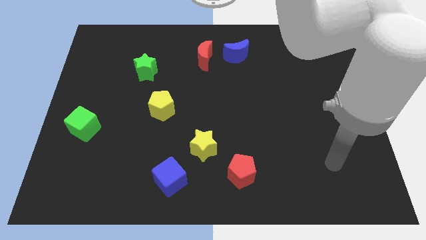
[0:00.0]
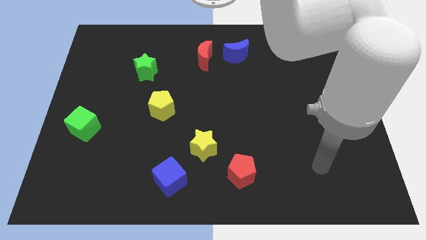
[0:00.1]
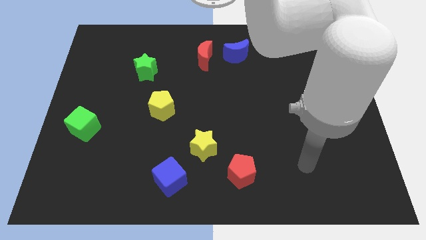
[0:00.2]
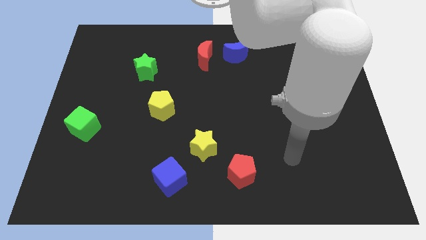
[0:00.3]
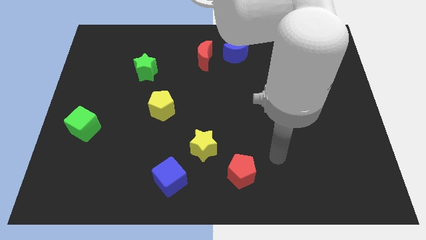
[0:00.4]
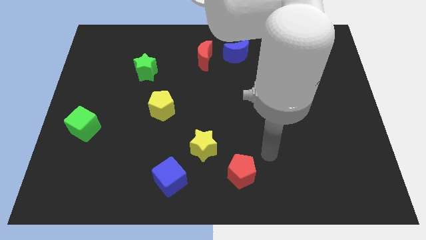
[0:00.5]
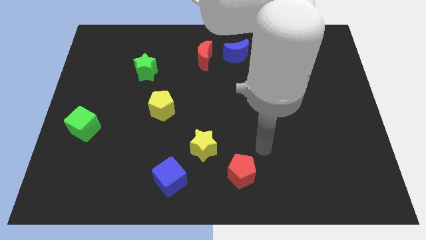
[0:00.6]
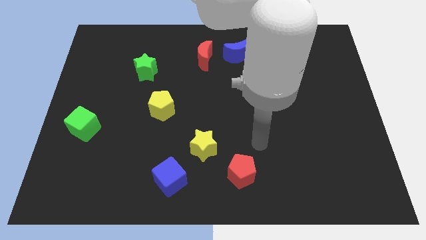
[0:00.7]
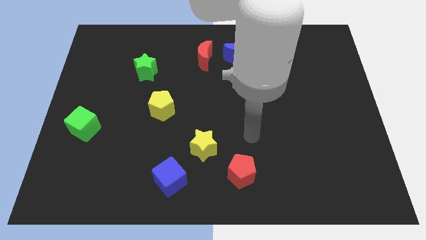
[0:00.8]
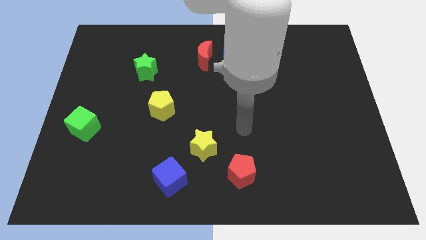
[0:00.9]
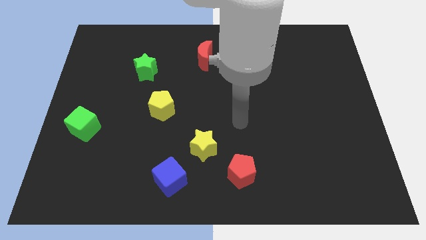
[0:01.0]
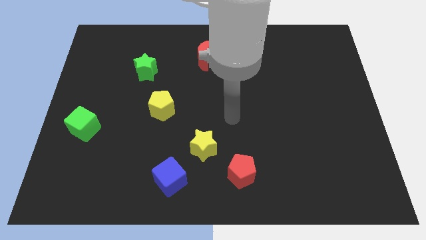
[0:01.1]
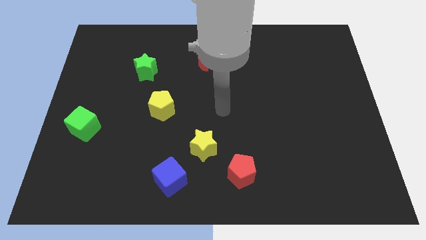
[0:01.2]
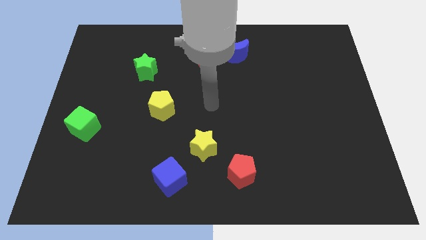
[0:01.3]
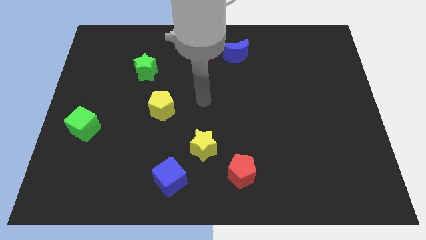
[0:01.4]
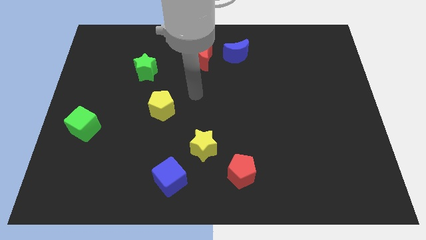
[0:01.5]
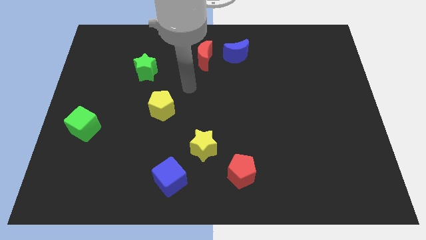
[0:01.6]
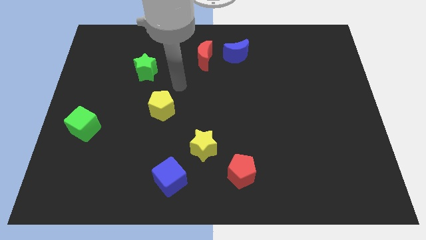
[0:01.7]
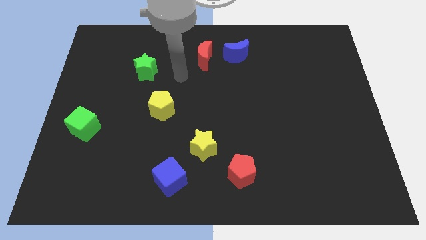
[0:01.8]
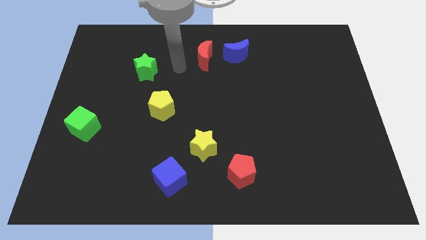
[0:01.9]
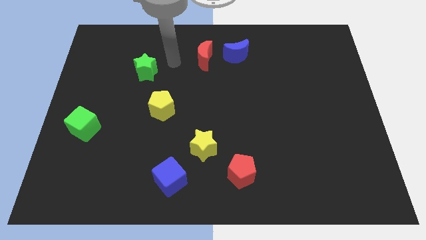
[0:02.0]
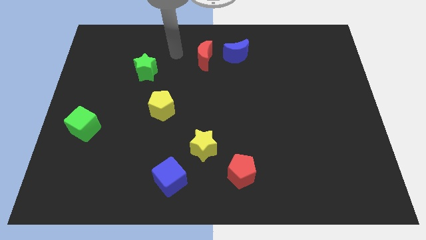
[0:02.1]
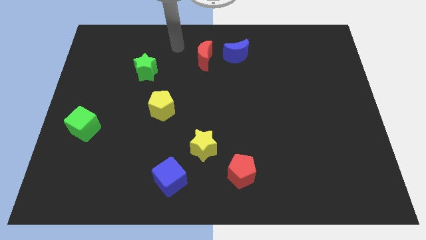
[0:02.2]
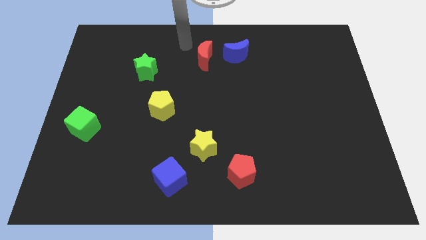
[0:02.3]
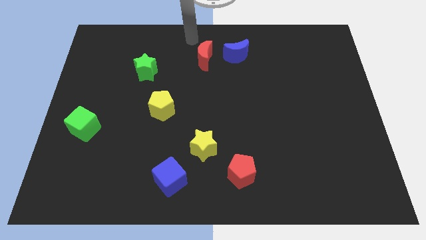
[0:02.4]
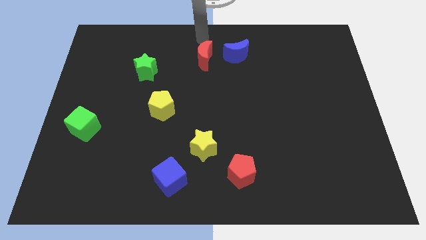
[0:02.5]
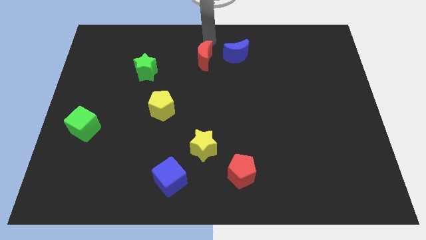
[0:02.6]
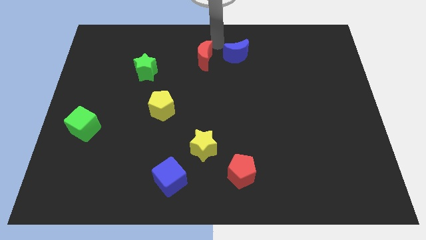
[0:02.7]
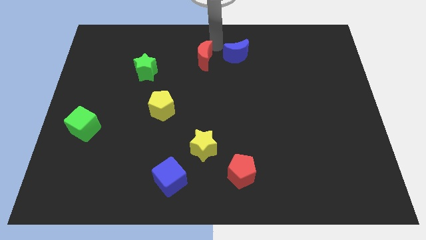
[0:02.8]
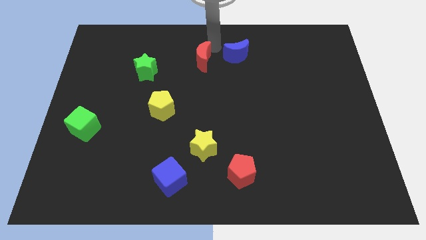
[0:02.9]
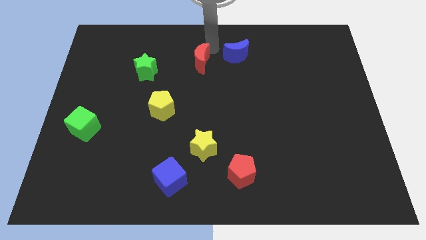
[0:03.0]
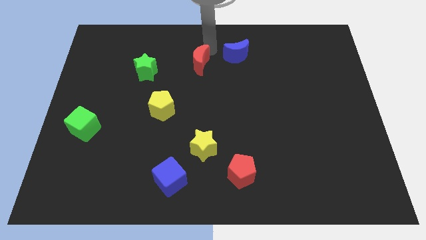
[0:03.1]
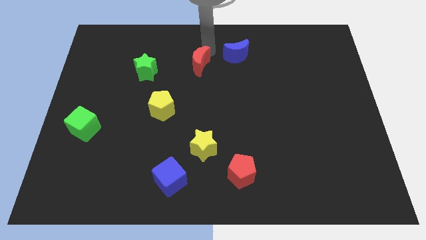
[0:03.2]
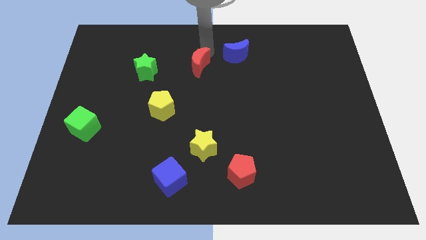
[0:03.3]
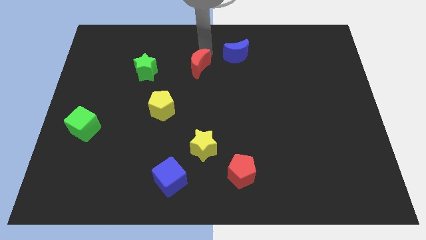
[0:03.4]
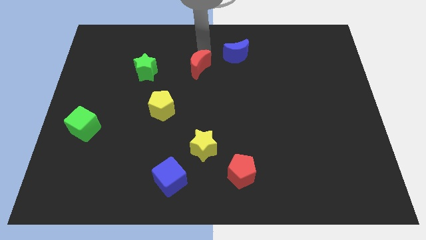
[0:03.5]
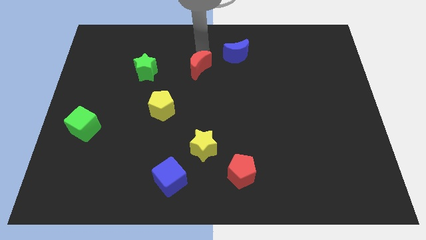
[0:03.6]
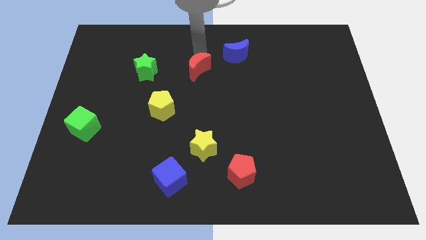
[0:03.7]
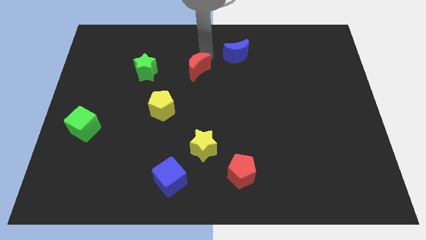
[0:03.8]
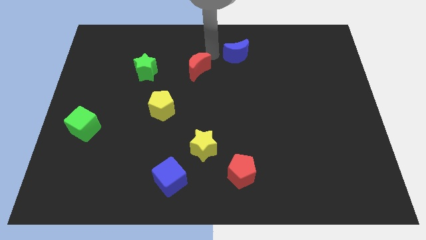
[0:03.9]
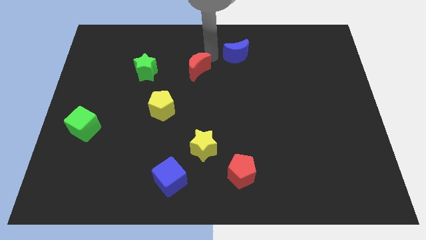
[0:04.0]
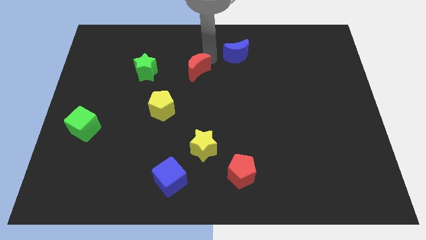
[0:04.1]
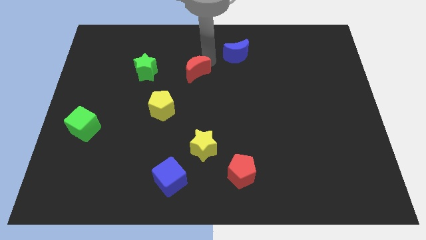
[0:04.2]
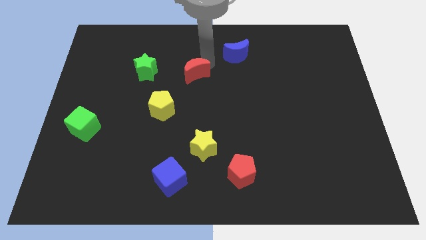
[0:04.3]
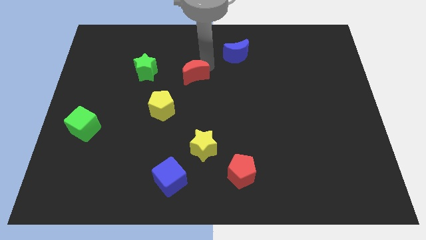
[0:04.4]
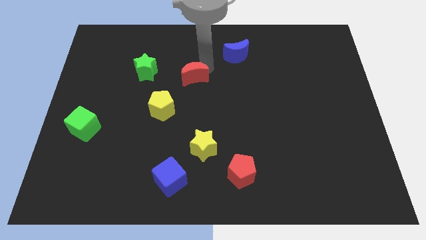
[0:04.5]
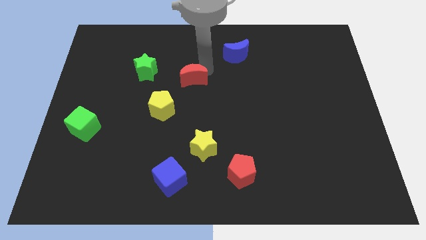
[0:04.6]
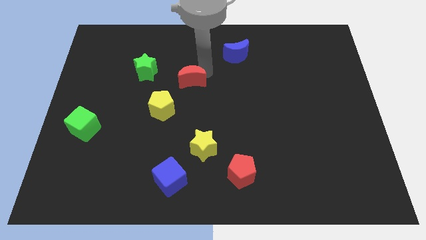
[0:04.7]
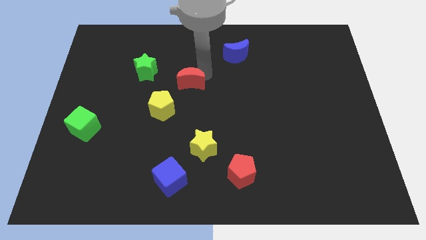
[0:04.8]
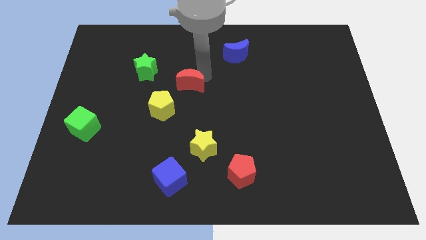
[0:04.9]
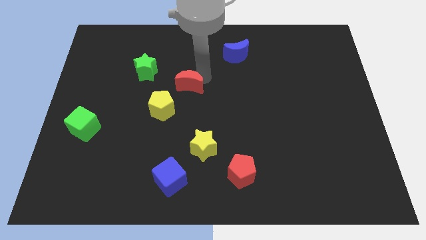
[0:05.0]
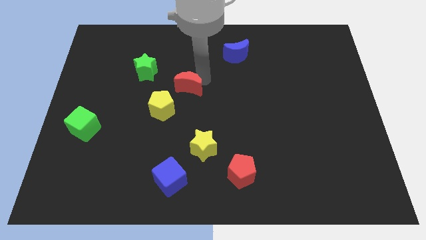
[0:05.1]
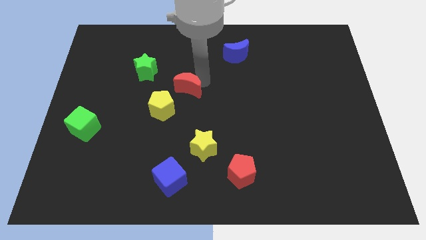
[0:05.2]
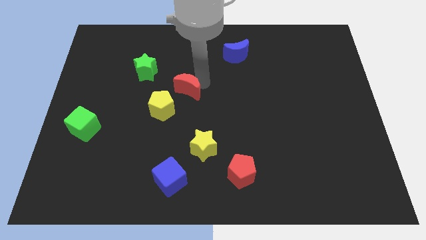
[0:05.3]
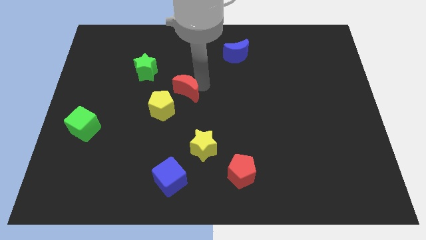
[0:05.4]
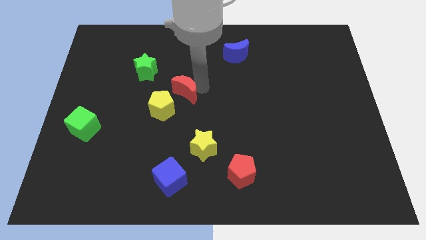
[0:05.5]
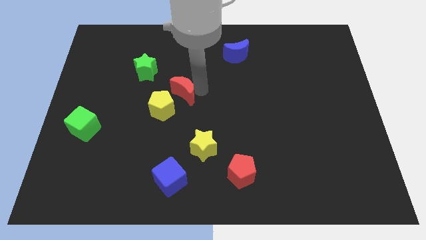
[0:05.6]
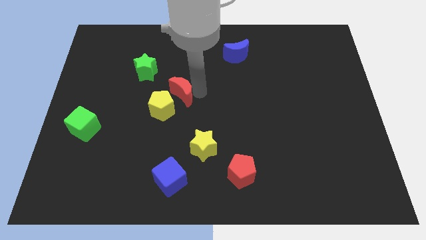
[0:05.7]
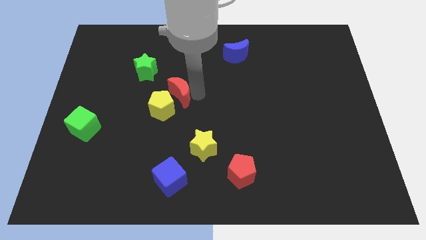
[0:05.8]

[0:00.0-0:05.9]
put the red moon close to the yellow pentagon

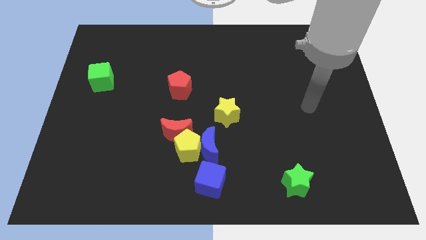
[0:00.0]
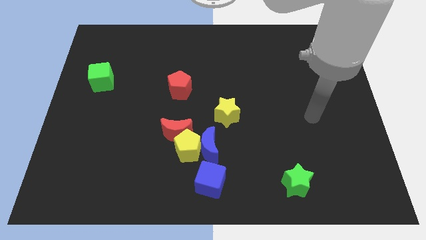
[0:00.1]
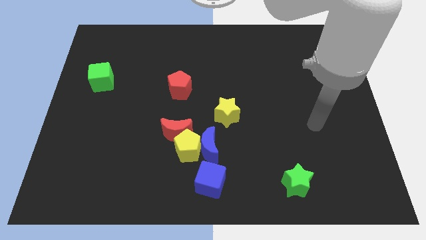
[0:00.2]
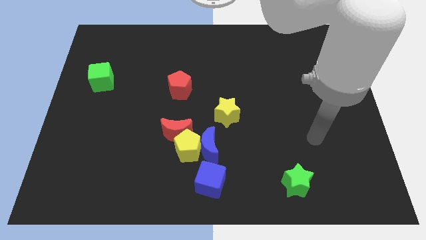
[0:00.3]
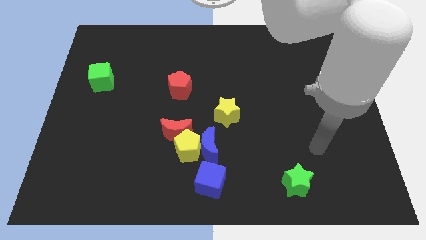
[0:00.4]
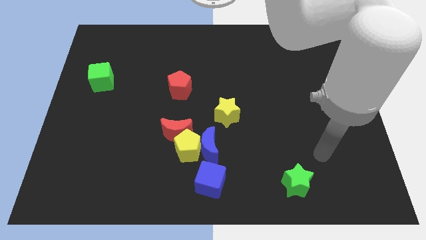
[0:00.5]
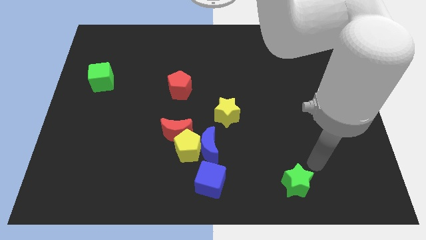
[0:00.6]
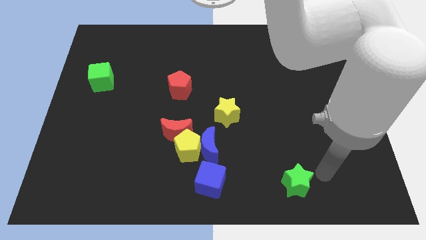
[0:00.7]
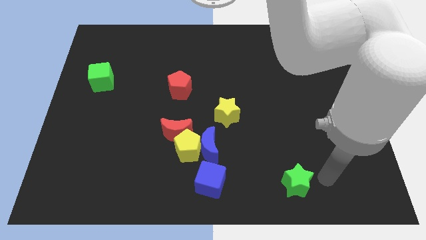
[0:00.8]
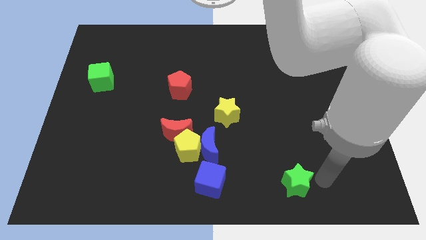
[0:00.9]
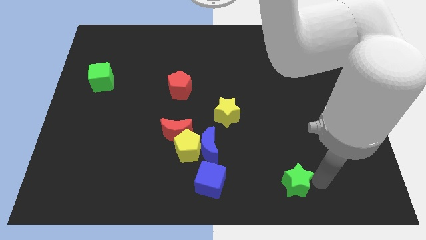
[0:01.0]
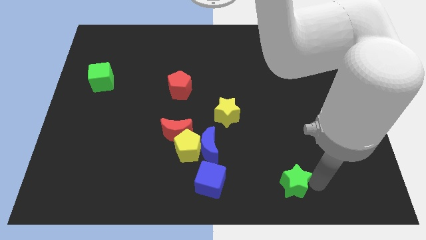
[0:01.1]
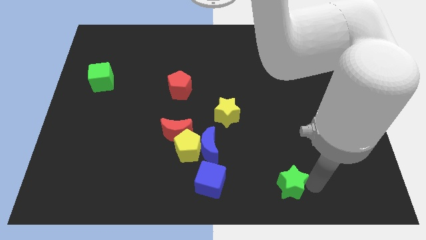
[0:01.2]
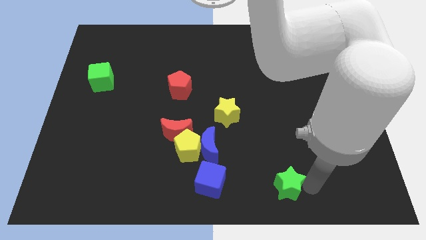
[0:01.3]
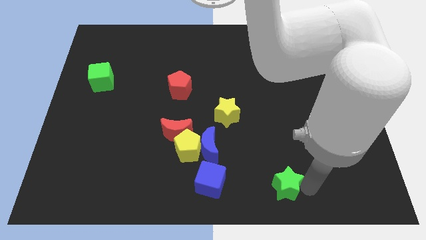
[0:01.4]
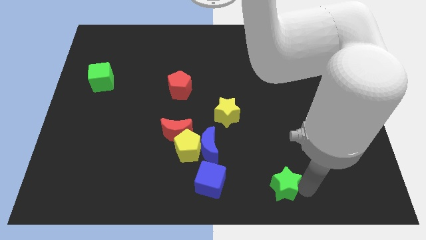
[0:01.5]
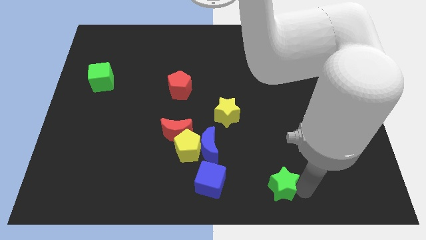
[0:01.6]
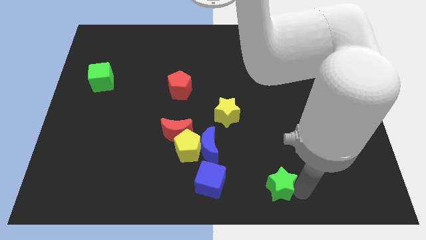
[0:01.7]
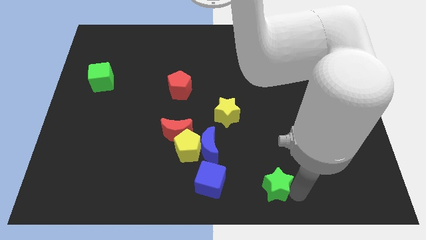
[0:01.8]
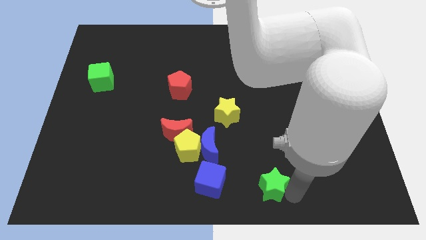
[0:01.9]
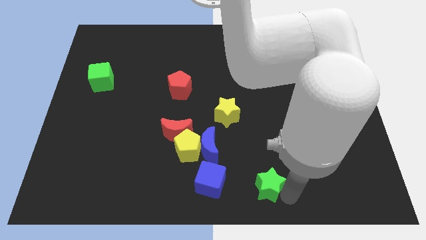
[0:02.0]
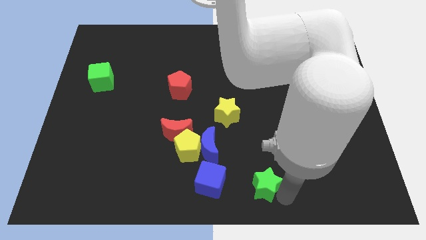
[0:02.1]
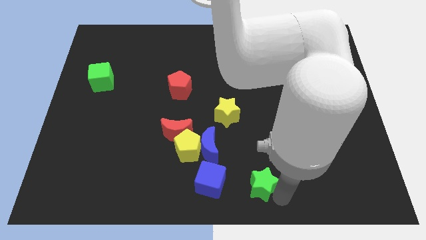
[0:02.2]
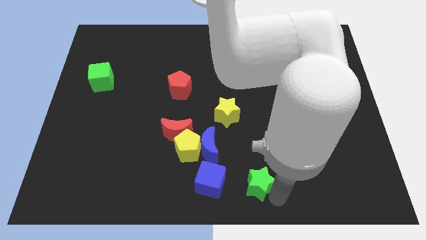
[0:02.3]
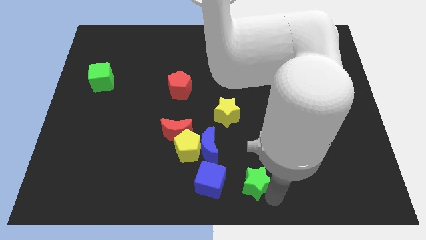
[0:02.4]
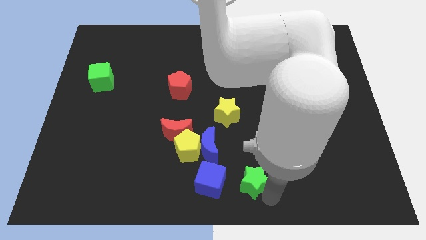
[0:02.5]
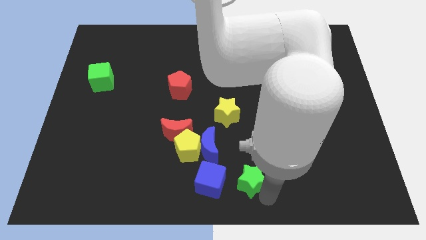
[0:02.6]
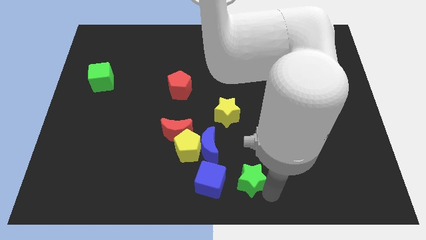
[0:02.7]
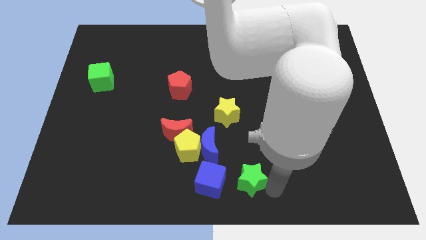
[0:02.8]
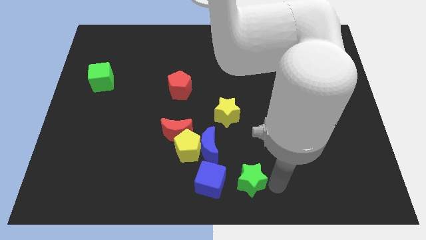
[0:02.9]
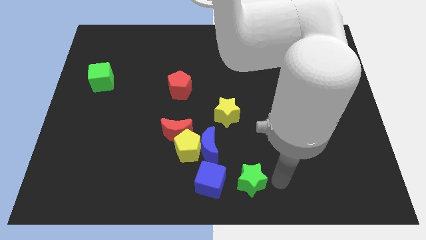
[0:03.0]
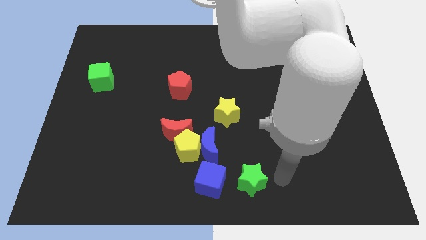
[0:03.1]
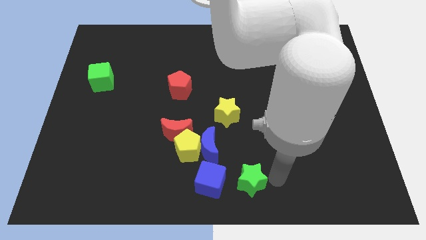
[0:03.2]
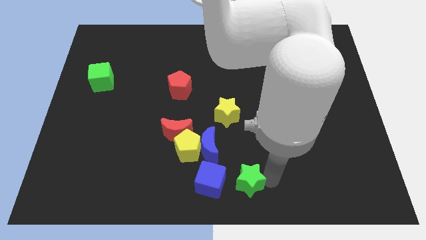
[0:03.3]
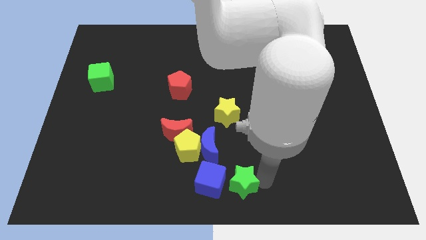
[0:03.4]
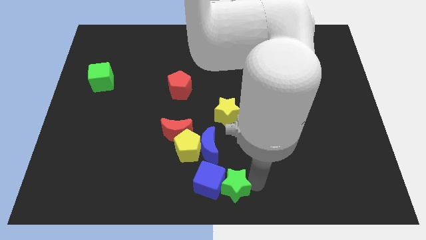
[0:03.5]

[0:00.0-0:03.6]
put the green star to the blue cube
